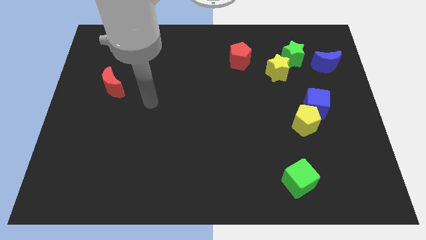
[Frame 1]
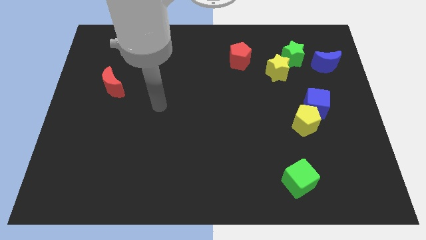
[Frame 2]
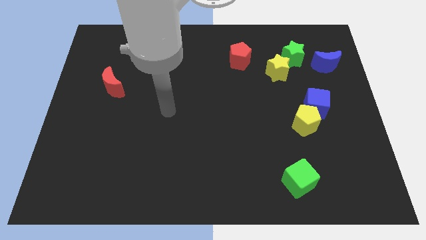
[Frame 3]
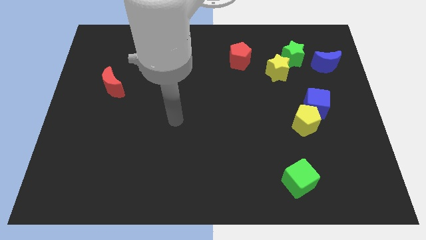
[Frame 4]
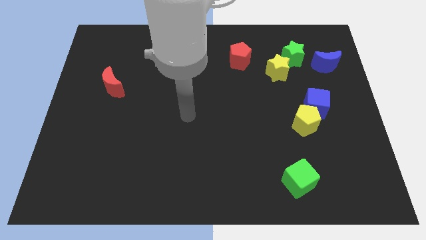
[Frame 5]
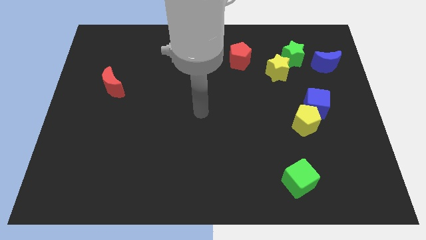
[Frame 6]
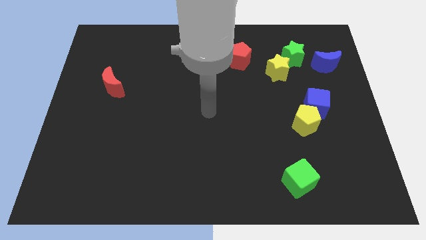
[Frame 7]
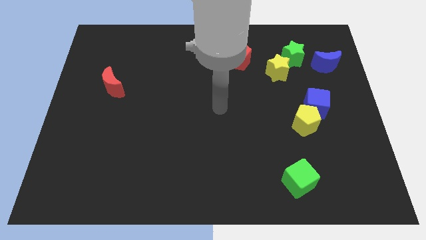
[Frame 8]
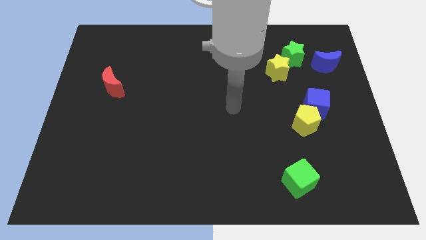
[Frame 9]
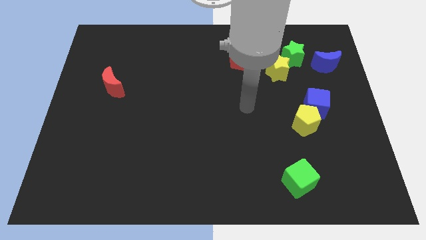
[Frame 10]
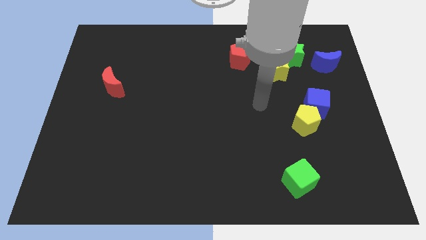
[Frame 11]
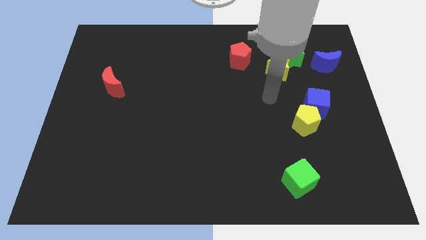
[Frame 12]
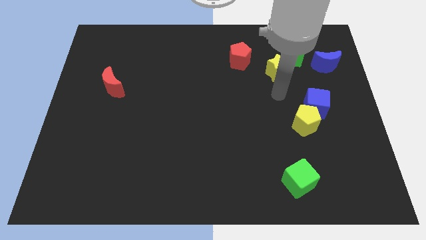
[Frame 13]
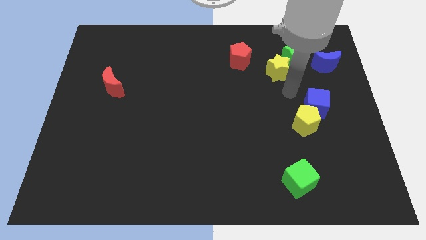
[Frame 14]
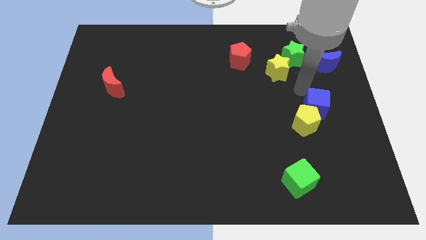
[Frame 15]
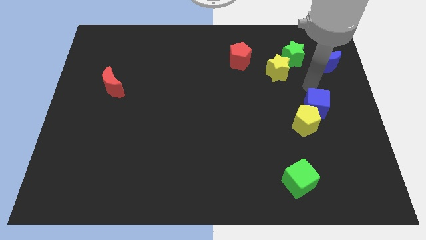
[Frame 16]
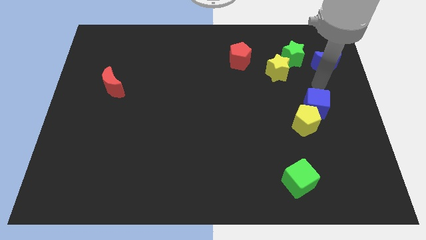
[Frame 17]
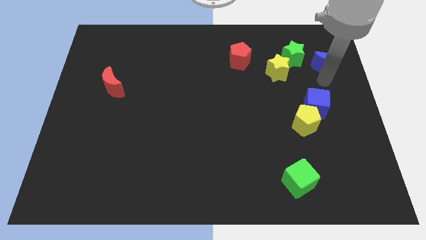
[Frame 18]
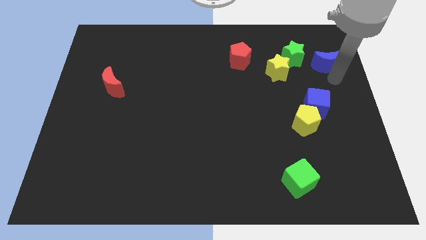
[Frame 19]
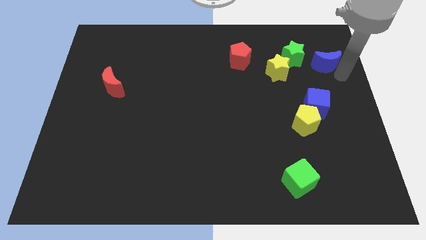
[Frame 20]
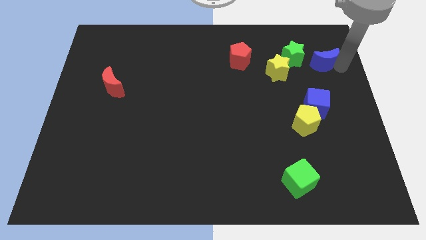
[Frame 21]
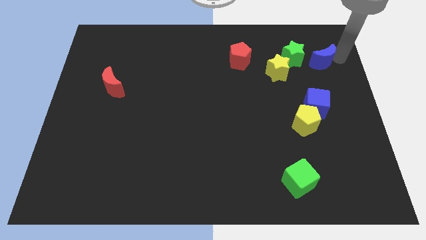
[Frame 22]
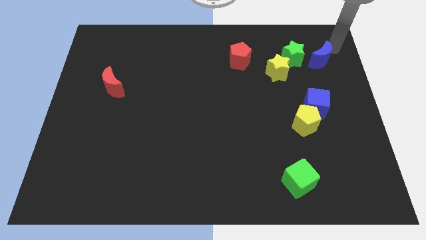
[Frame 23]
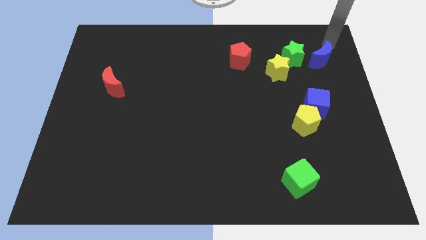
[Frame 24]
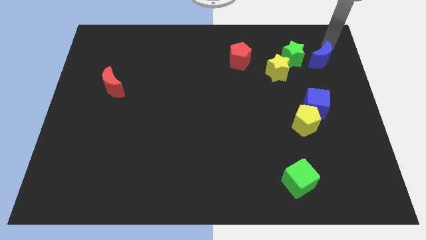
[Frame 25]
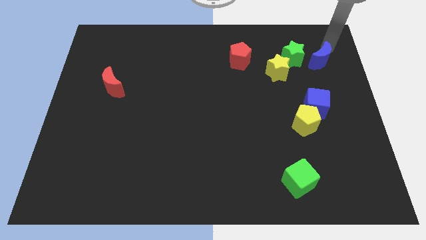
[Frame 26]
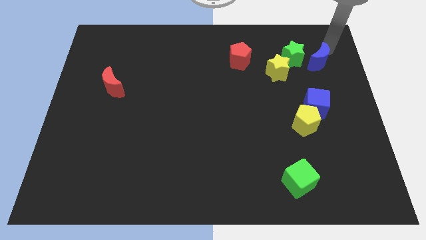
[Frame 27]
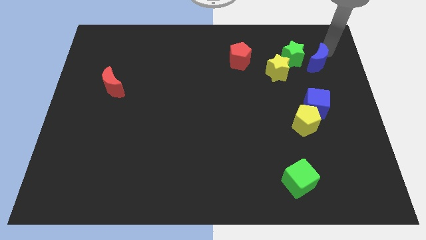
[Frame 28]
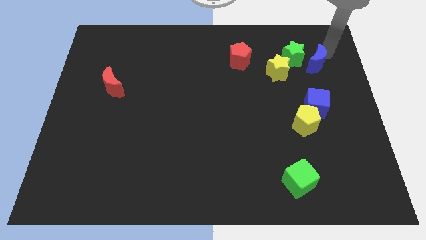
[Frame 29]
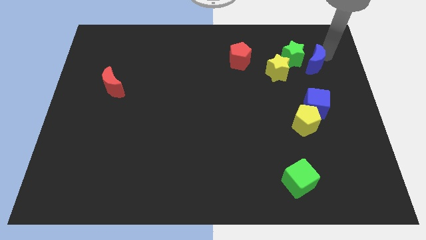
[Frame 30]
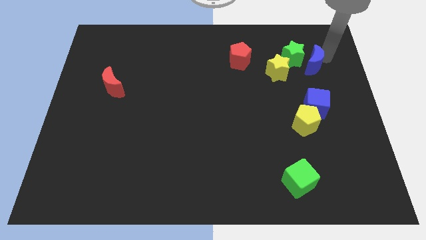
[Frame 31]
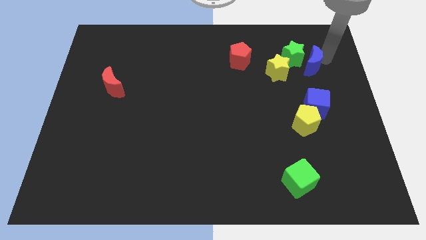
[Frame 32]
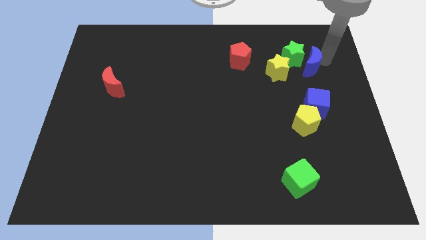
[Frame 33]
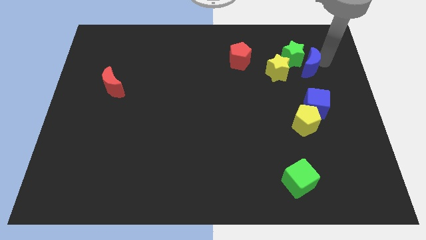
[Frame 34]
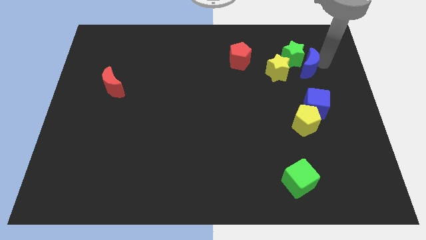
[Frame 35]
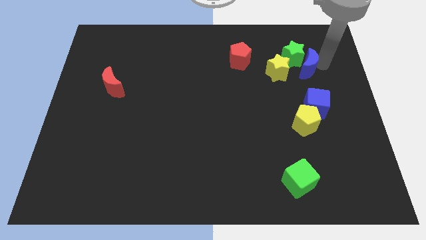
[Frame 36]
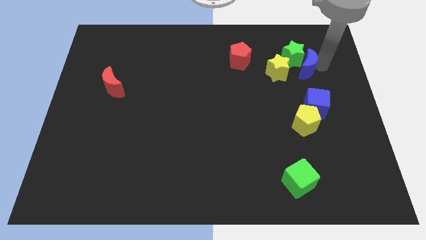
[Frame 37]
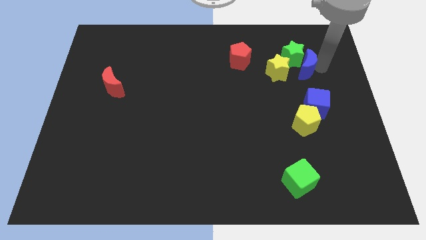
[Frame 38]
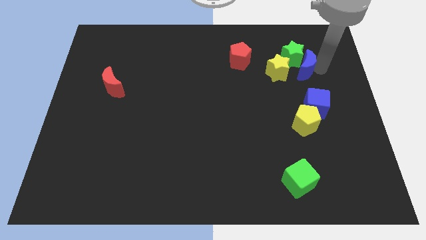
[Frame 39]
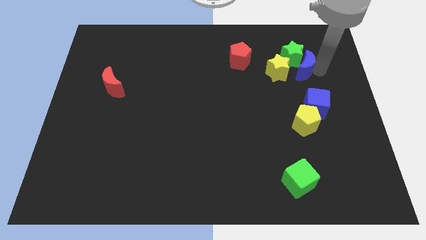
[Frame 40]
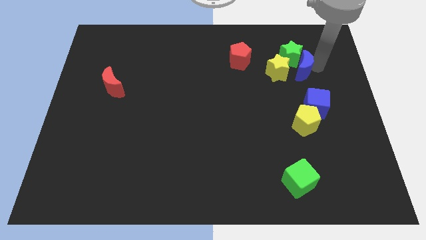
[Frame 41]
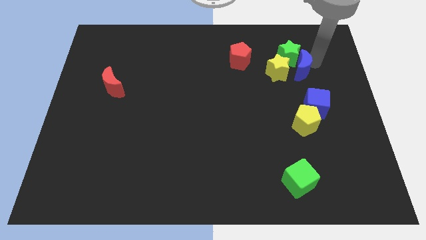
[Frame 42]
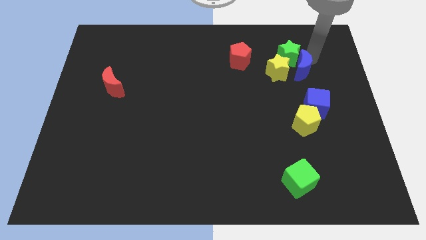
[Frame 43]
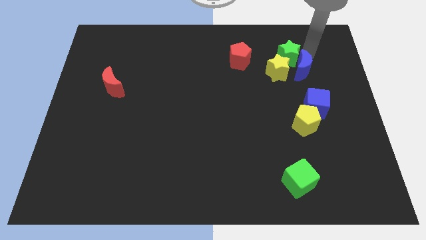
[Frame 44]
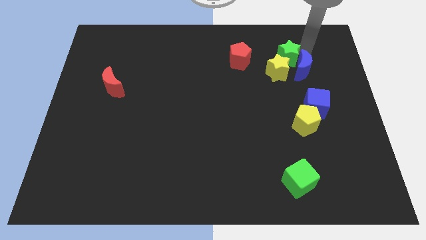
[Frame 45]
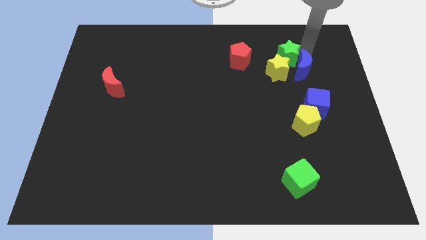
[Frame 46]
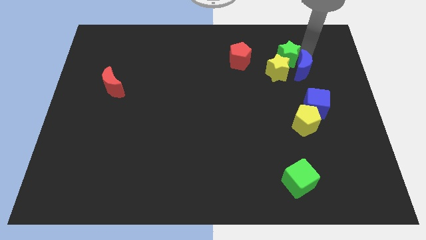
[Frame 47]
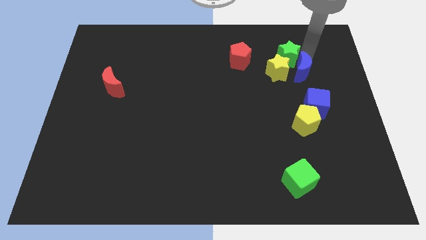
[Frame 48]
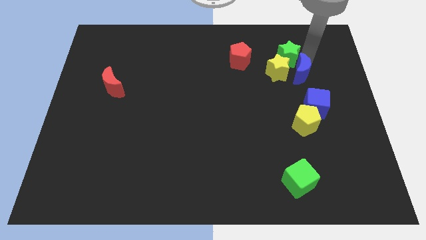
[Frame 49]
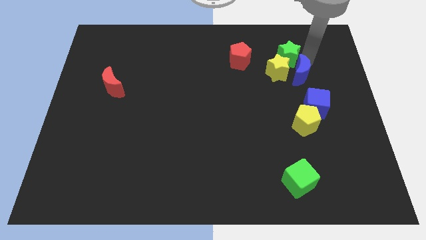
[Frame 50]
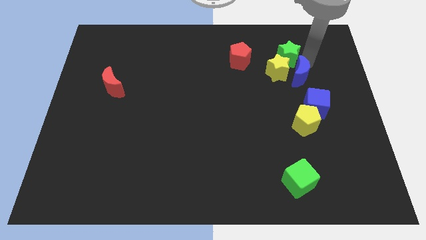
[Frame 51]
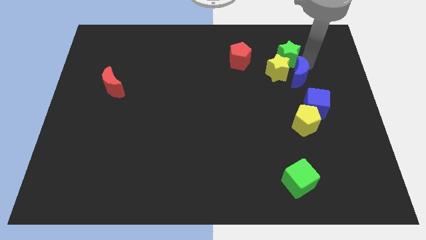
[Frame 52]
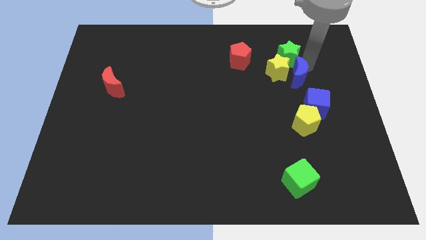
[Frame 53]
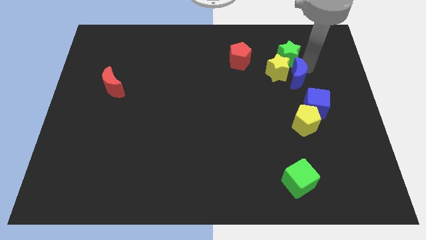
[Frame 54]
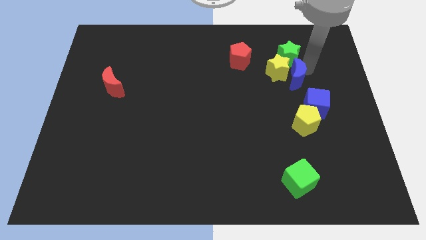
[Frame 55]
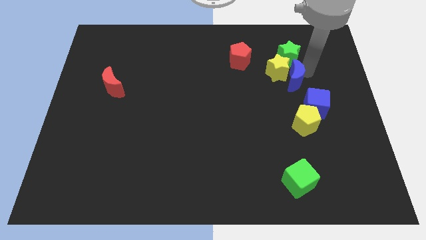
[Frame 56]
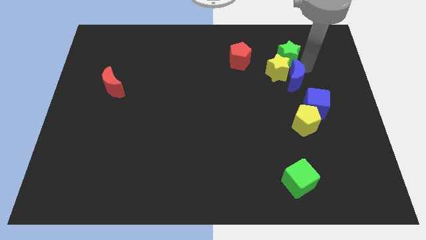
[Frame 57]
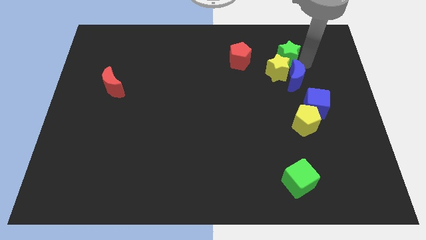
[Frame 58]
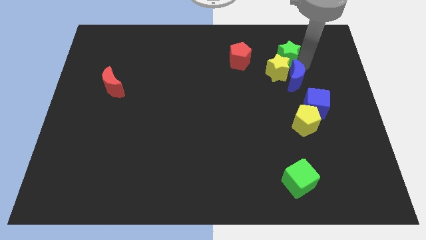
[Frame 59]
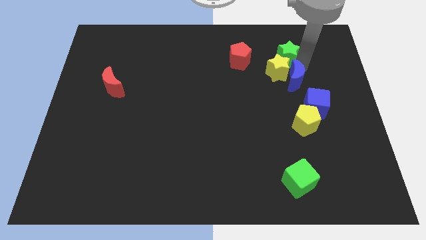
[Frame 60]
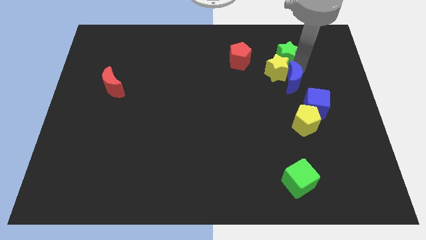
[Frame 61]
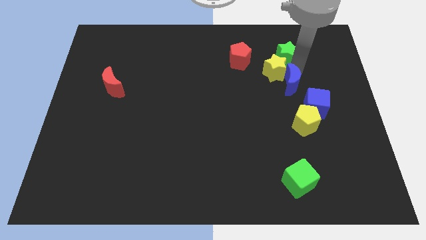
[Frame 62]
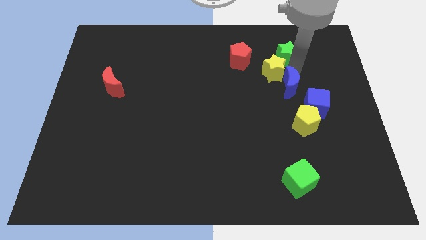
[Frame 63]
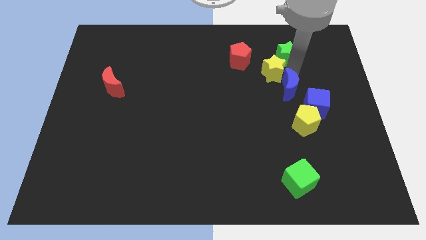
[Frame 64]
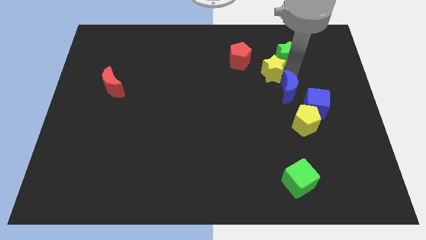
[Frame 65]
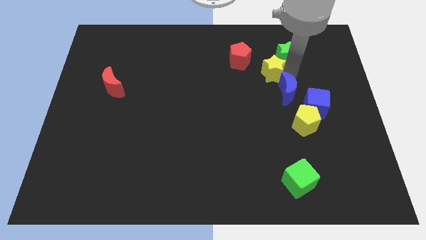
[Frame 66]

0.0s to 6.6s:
move the blue moon to the top left of the yellow pentagon

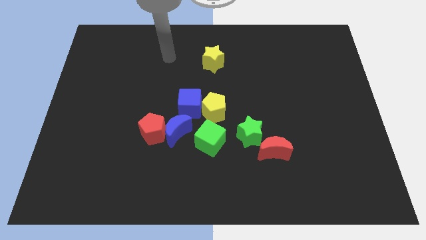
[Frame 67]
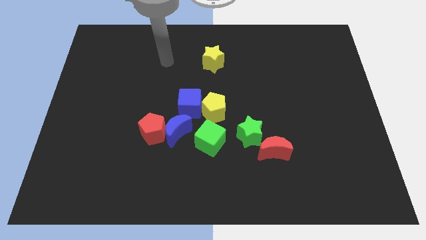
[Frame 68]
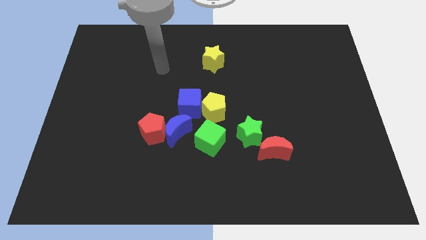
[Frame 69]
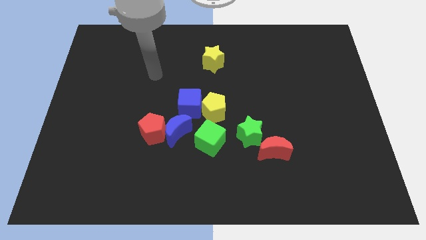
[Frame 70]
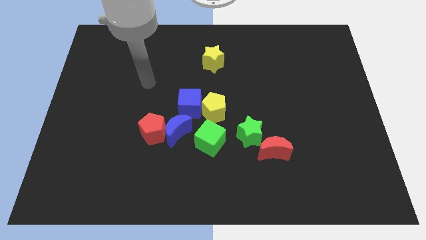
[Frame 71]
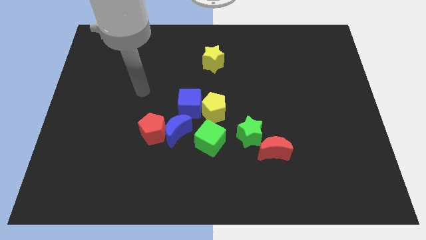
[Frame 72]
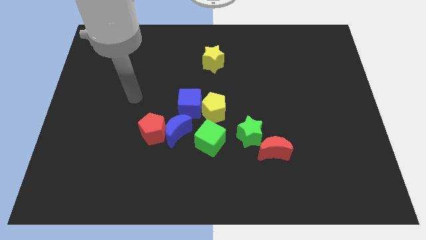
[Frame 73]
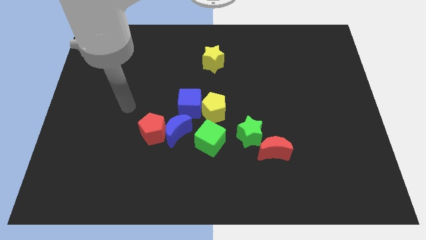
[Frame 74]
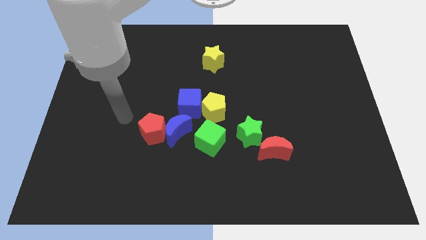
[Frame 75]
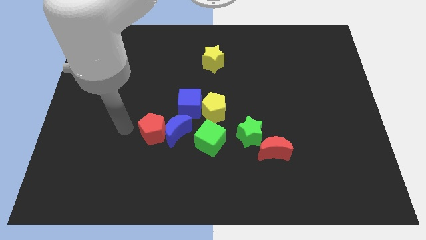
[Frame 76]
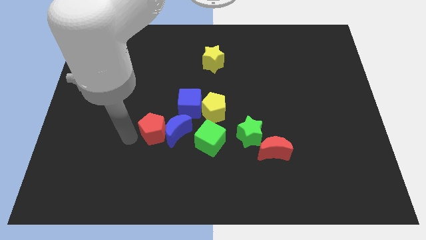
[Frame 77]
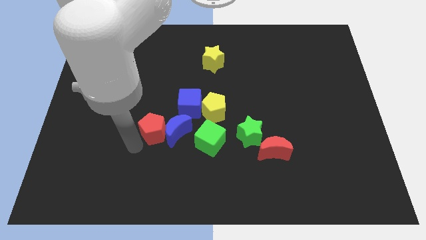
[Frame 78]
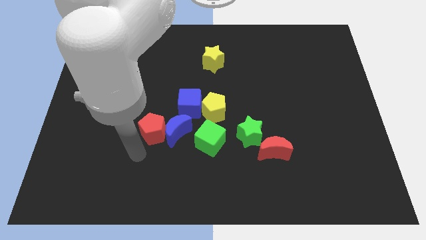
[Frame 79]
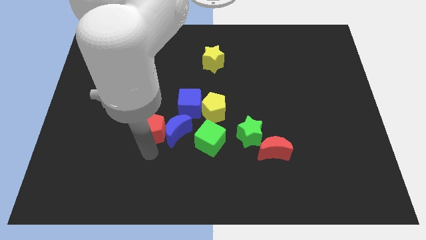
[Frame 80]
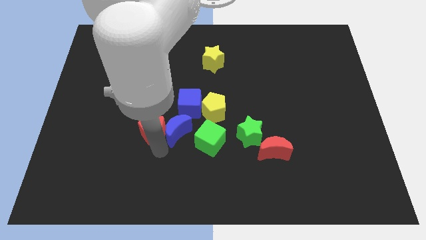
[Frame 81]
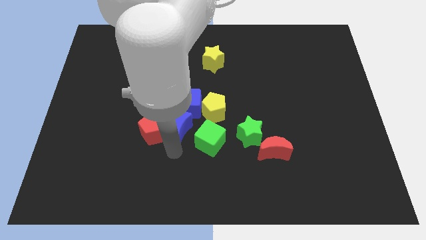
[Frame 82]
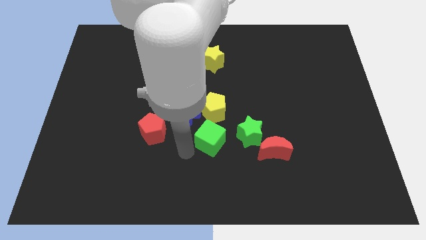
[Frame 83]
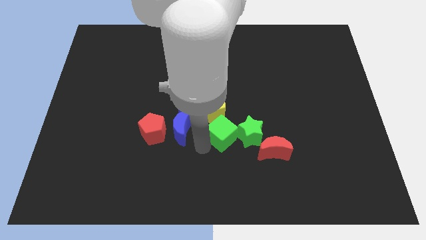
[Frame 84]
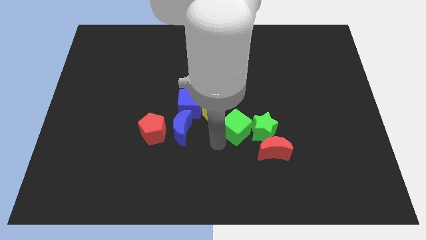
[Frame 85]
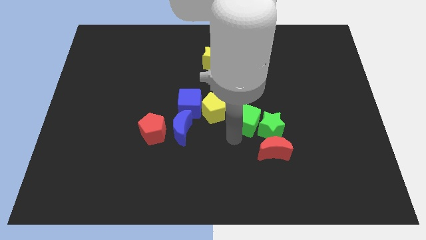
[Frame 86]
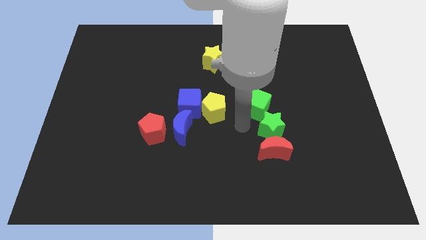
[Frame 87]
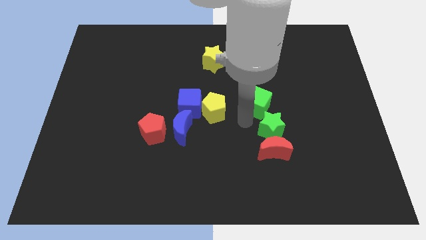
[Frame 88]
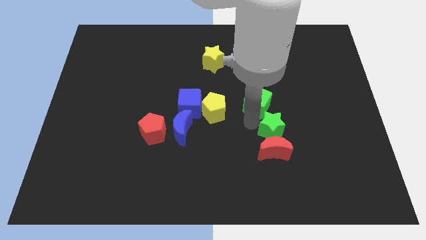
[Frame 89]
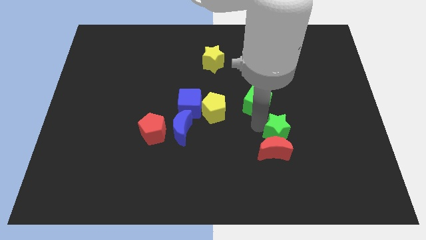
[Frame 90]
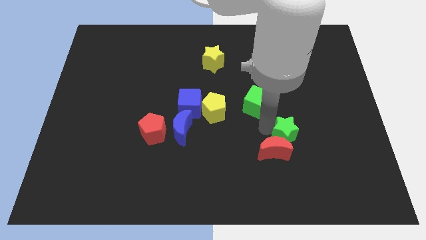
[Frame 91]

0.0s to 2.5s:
push the green star to the right side of the red moon
